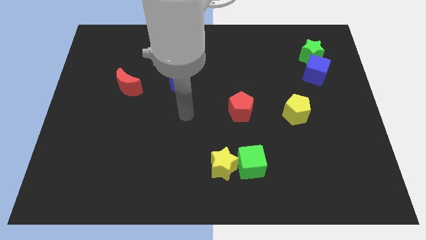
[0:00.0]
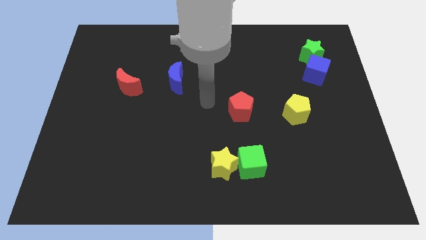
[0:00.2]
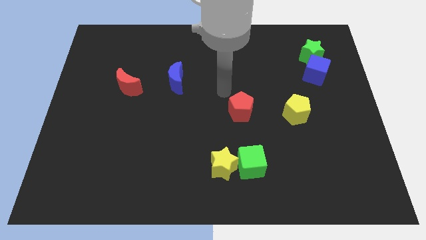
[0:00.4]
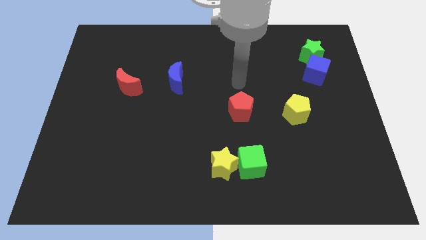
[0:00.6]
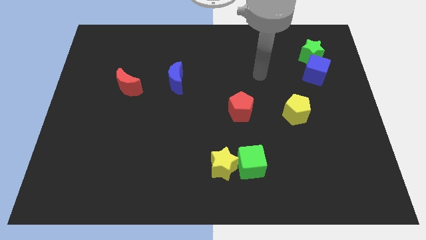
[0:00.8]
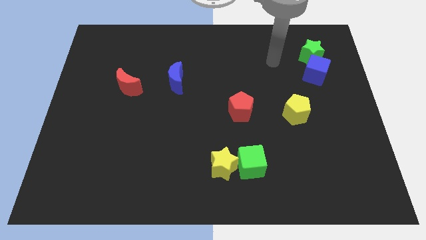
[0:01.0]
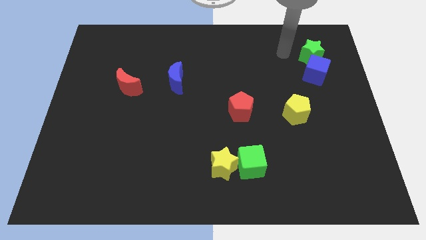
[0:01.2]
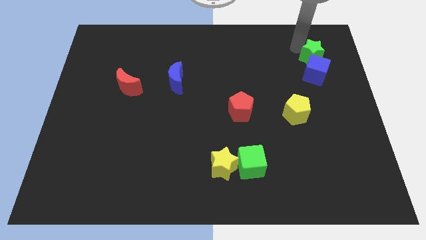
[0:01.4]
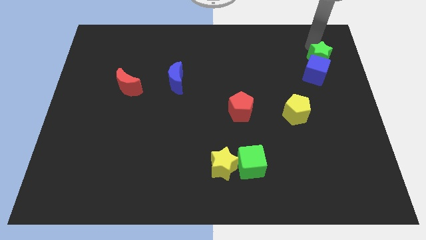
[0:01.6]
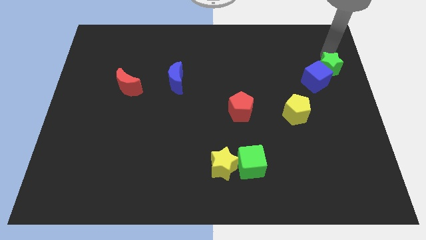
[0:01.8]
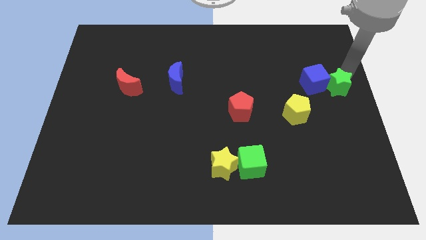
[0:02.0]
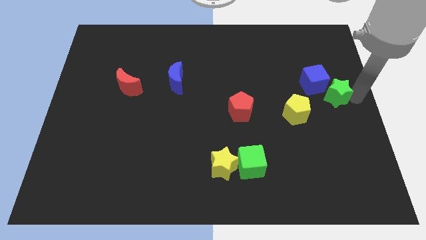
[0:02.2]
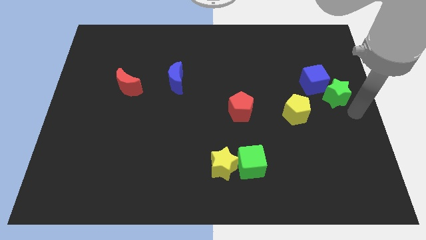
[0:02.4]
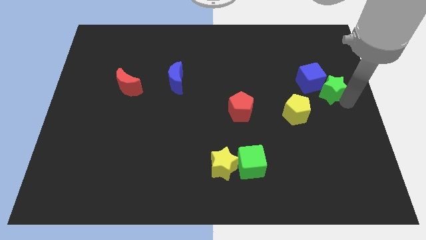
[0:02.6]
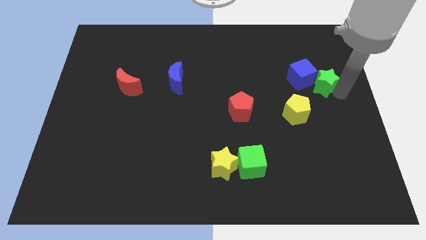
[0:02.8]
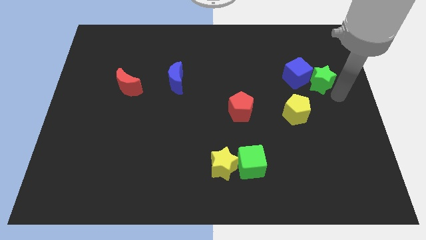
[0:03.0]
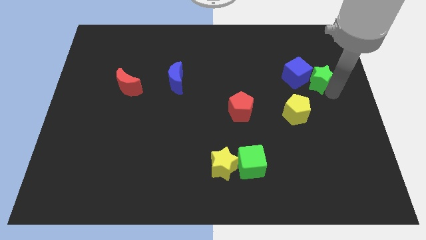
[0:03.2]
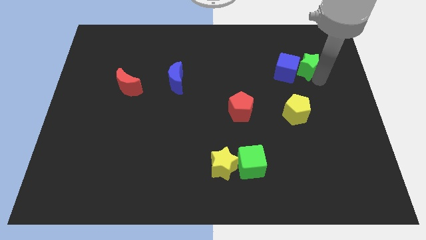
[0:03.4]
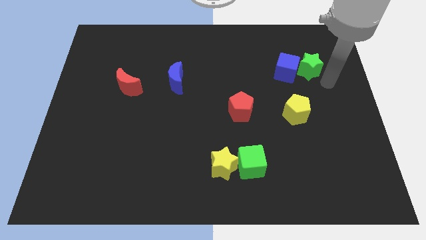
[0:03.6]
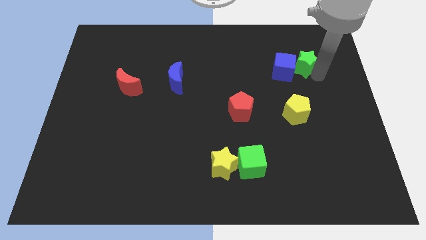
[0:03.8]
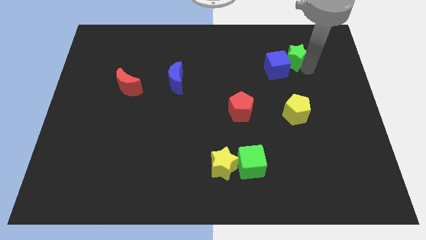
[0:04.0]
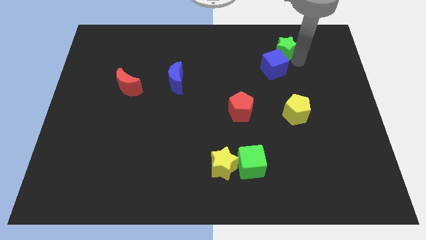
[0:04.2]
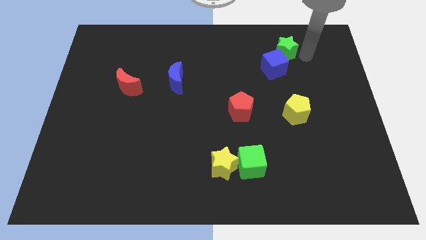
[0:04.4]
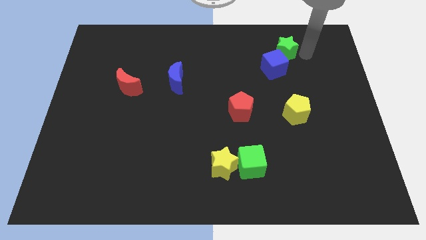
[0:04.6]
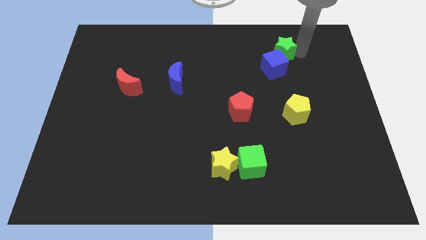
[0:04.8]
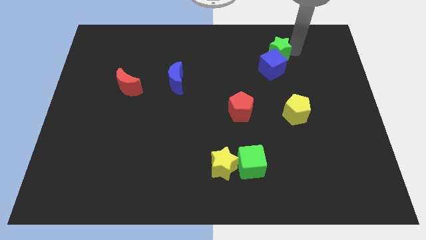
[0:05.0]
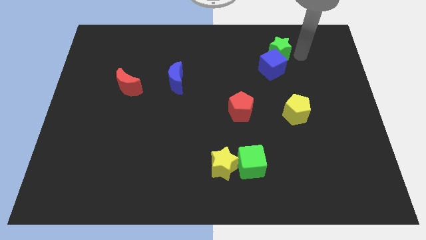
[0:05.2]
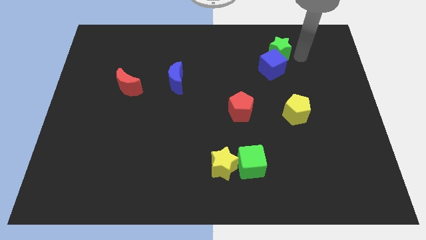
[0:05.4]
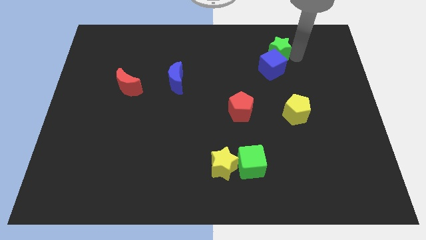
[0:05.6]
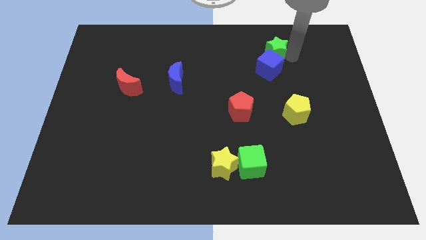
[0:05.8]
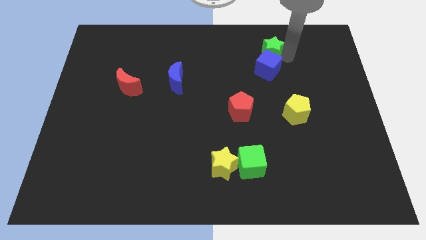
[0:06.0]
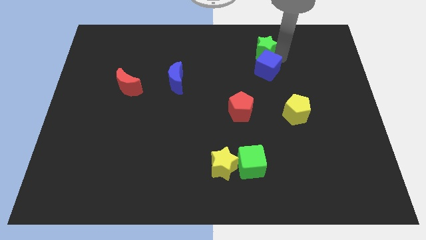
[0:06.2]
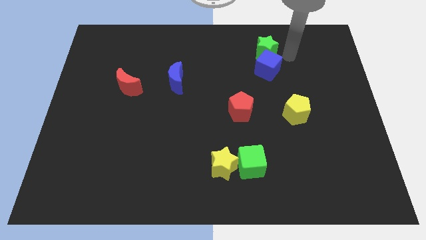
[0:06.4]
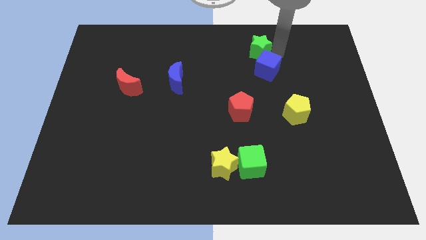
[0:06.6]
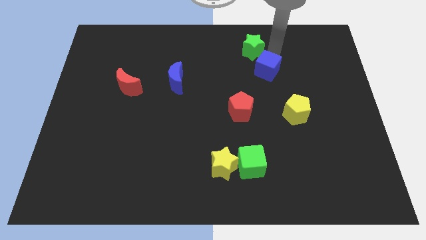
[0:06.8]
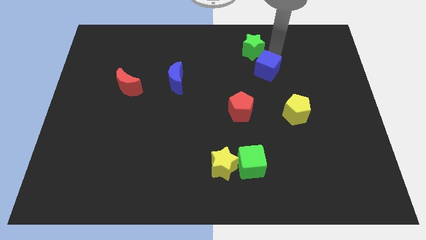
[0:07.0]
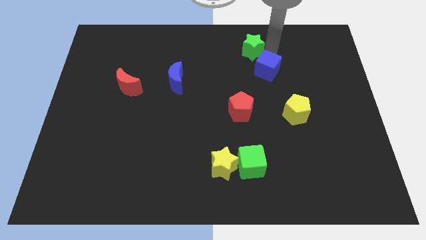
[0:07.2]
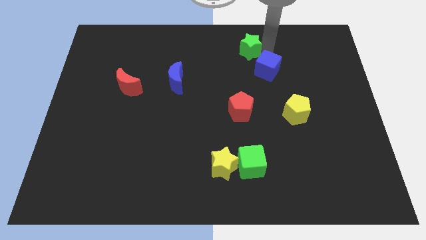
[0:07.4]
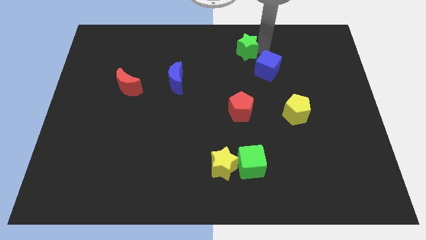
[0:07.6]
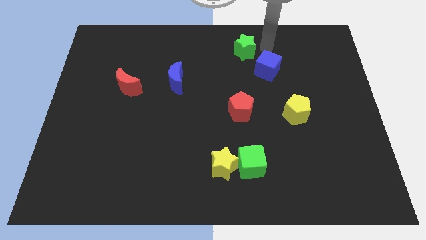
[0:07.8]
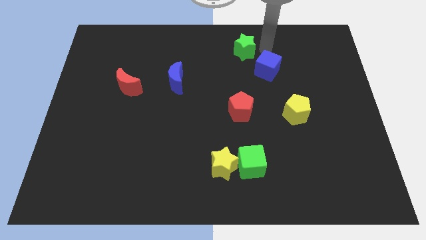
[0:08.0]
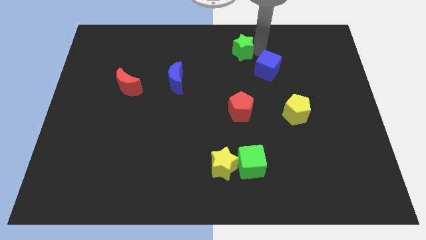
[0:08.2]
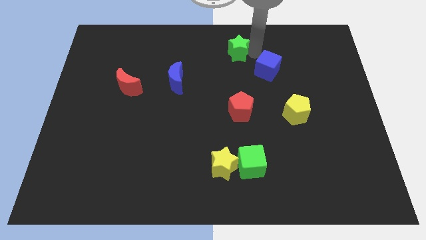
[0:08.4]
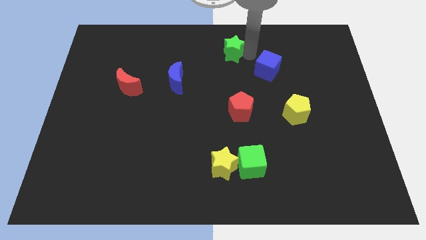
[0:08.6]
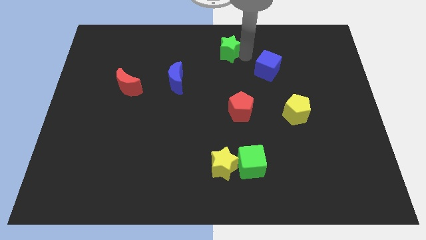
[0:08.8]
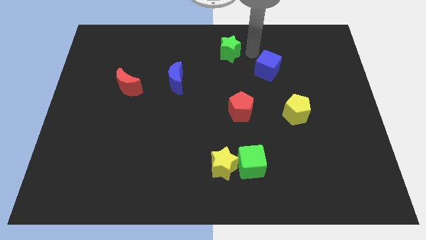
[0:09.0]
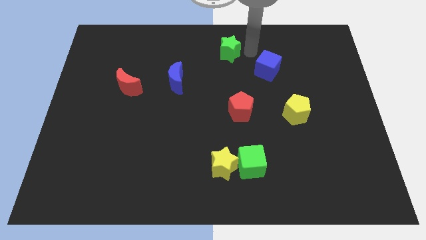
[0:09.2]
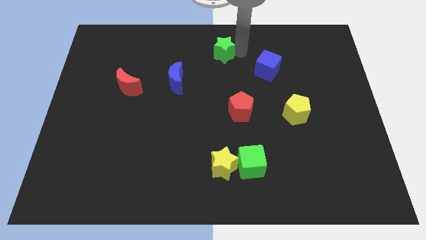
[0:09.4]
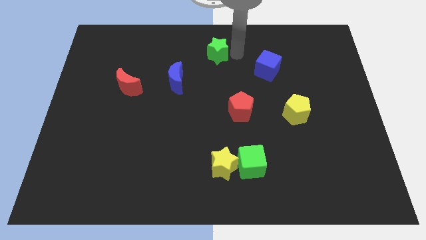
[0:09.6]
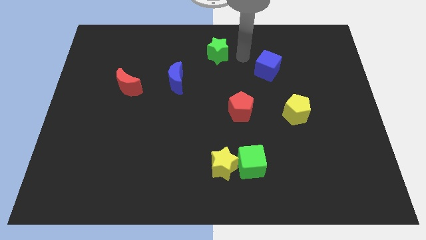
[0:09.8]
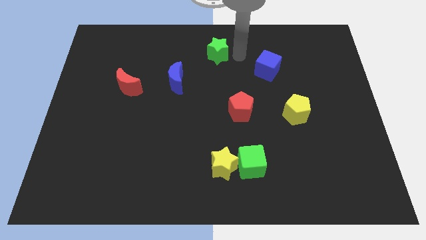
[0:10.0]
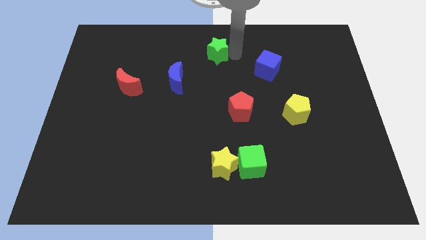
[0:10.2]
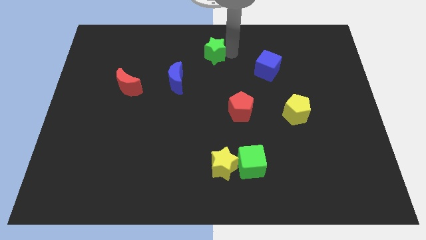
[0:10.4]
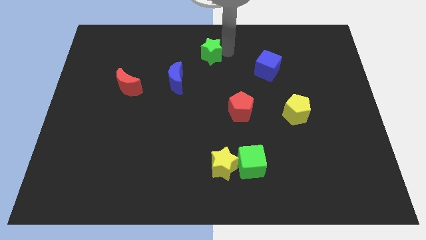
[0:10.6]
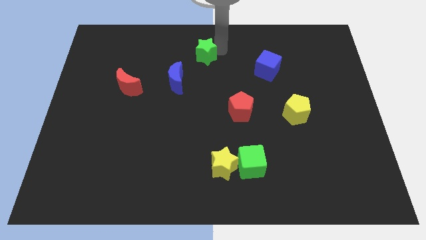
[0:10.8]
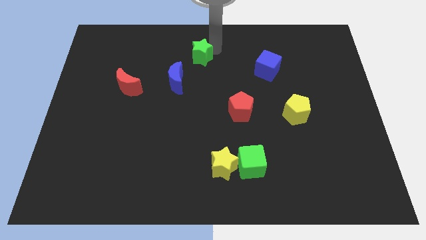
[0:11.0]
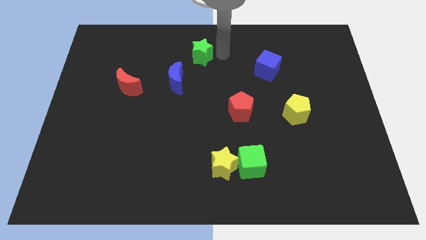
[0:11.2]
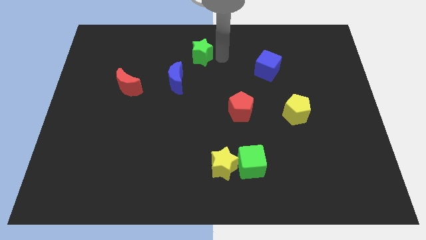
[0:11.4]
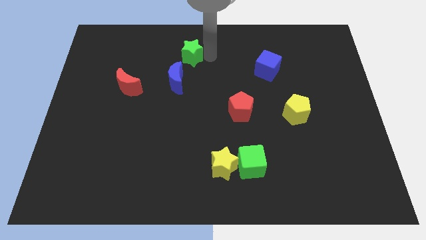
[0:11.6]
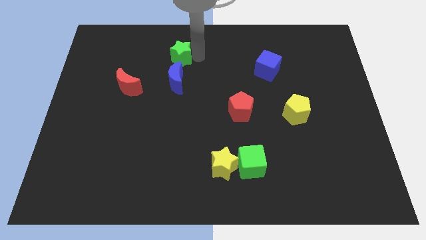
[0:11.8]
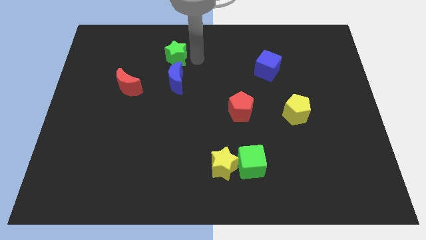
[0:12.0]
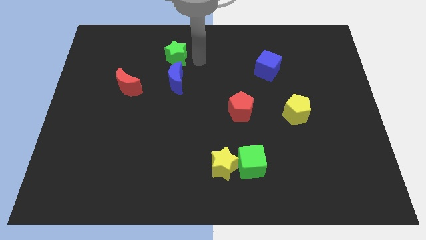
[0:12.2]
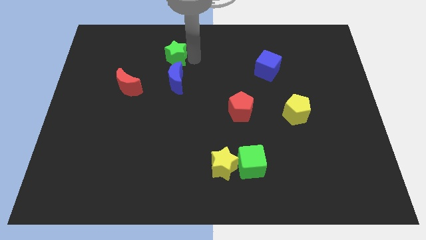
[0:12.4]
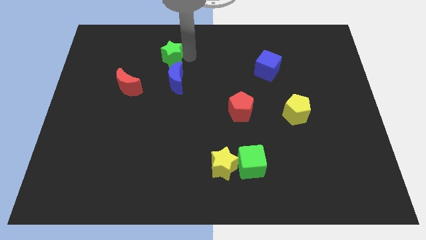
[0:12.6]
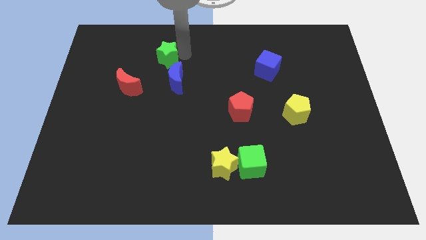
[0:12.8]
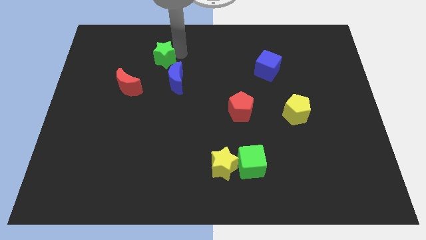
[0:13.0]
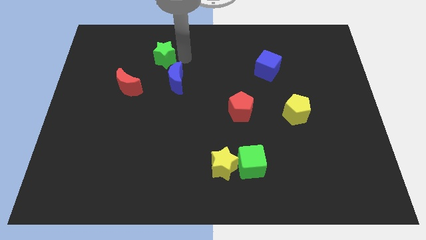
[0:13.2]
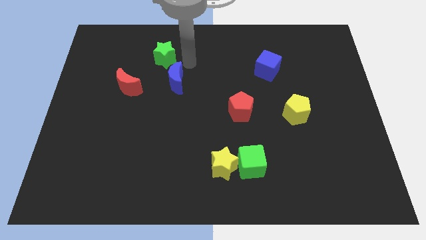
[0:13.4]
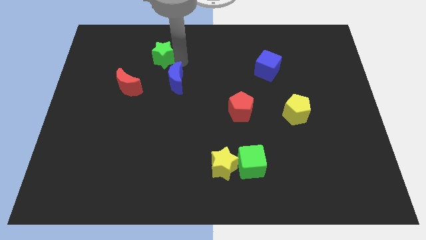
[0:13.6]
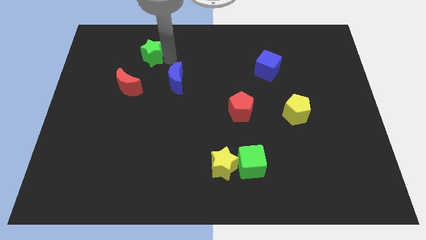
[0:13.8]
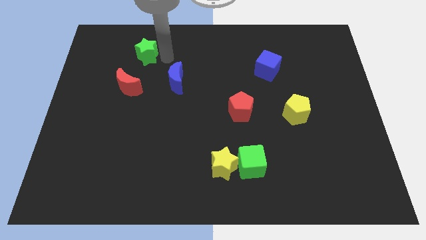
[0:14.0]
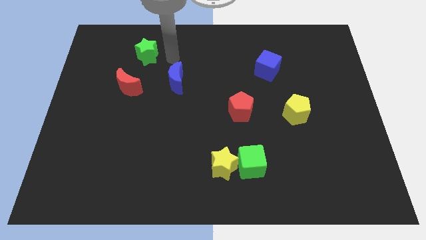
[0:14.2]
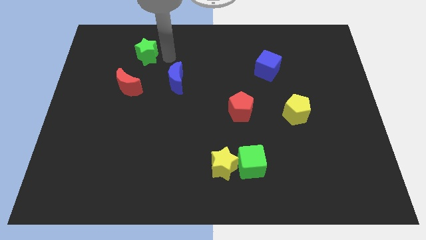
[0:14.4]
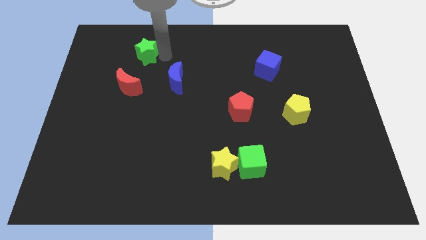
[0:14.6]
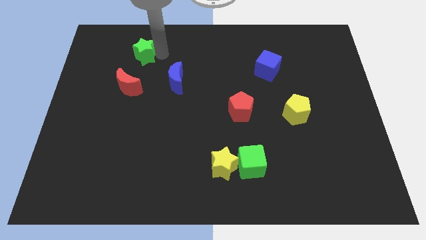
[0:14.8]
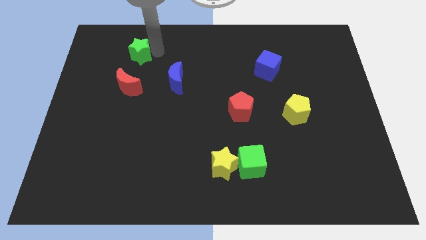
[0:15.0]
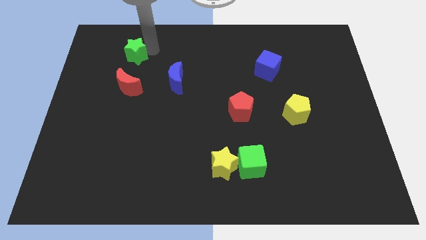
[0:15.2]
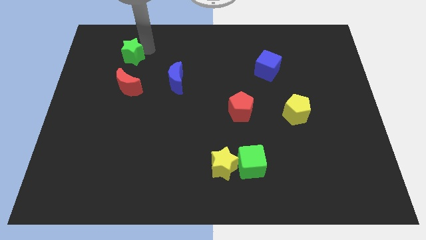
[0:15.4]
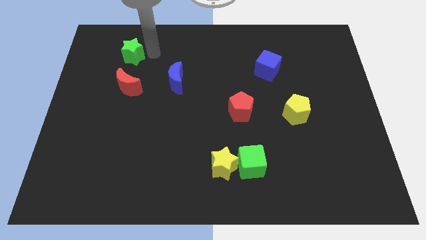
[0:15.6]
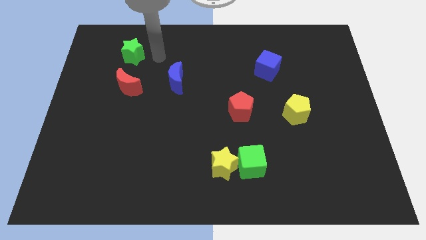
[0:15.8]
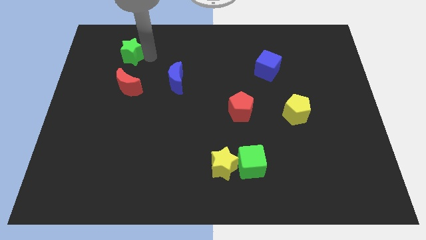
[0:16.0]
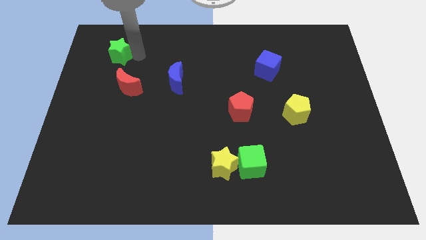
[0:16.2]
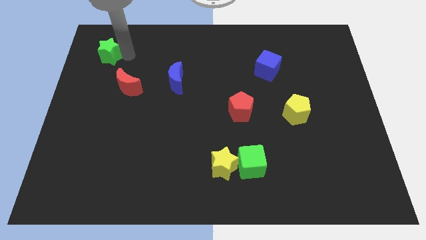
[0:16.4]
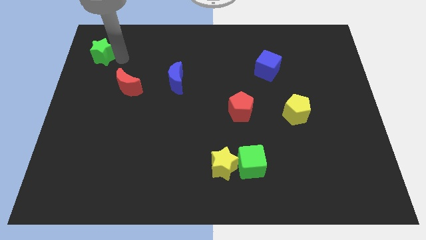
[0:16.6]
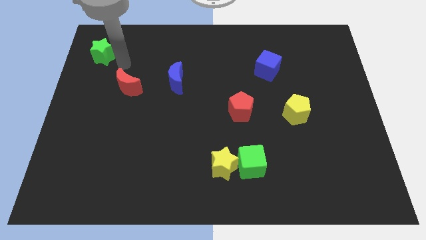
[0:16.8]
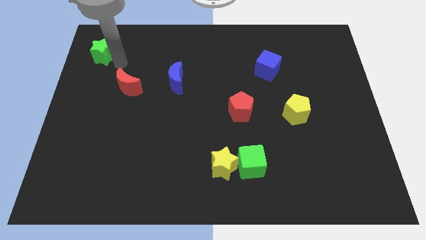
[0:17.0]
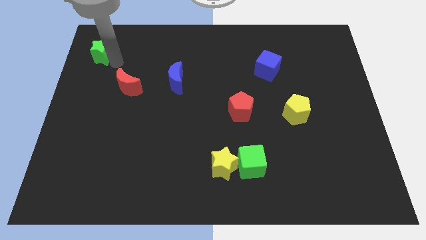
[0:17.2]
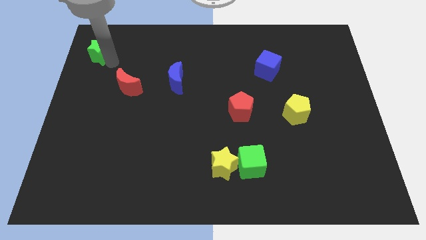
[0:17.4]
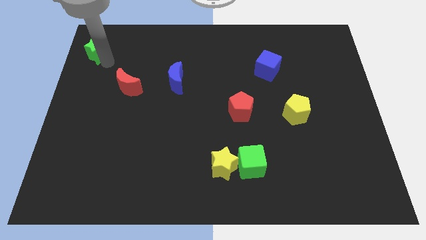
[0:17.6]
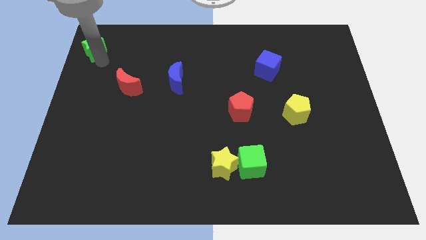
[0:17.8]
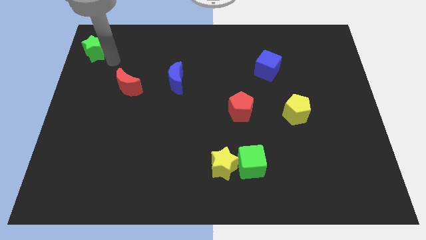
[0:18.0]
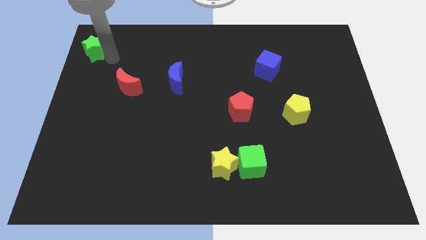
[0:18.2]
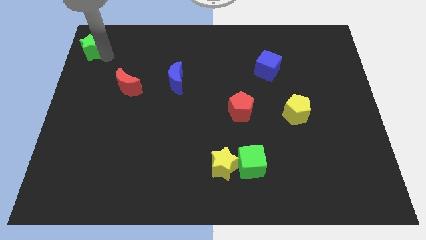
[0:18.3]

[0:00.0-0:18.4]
slide the green star to the upper left corner
